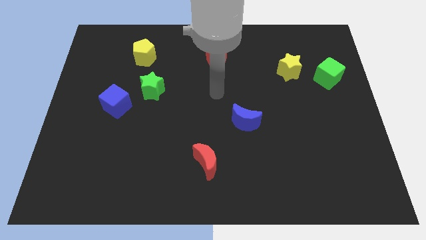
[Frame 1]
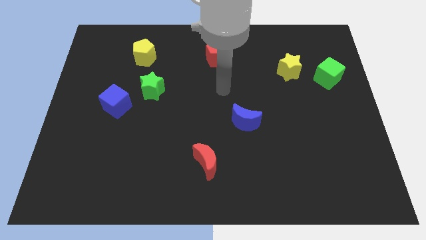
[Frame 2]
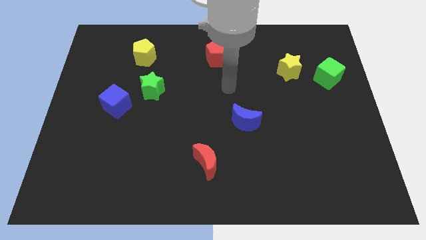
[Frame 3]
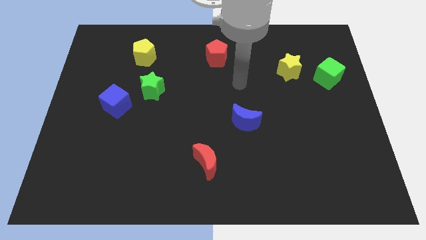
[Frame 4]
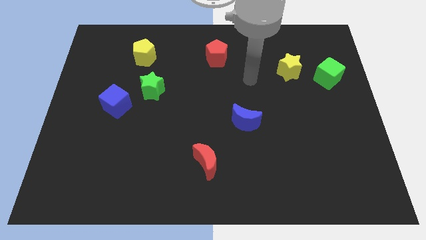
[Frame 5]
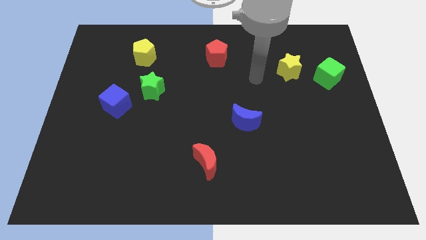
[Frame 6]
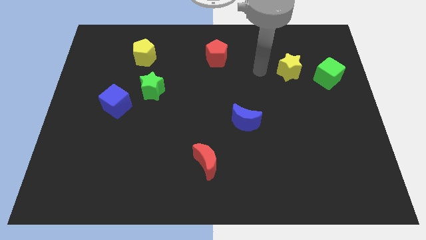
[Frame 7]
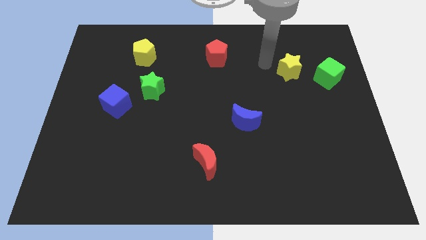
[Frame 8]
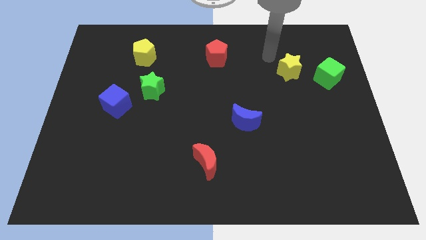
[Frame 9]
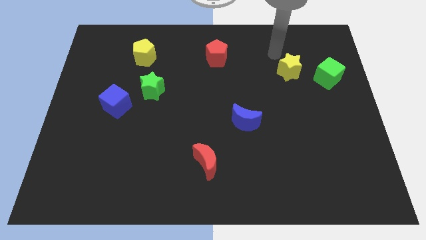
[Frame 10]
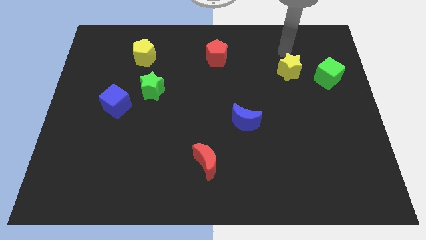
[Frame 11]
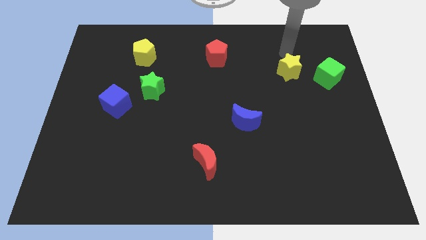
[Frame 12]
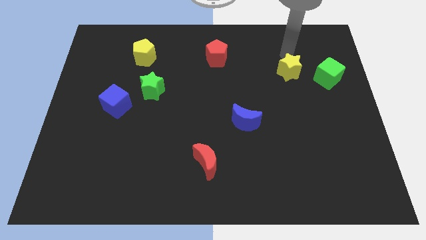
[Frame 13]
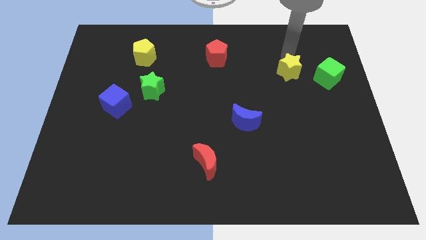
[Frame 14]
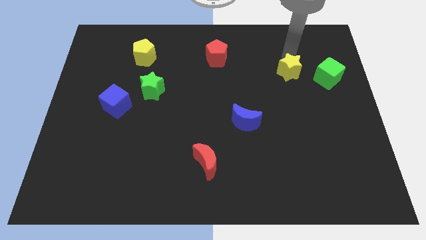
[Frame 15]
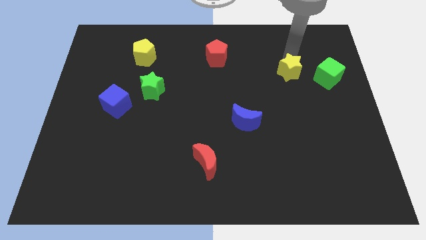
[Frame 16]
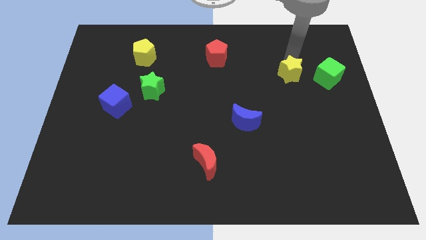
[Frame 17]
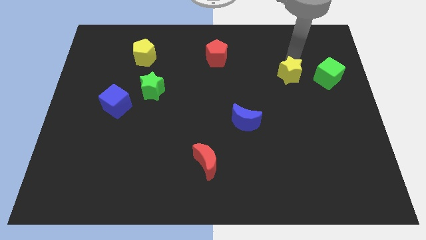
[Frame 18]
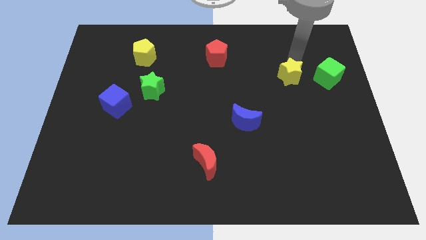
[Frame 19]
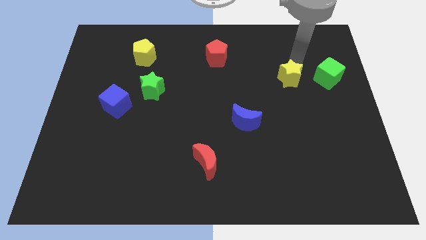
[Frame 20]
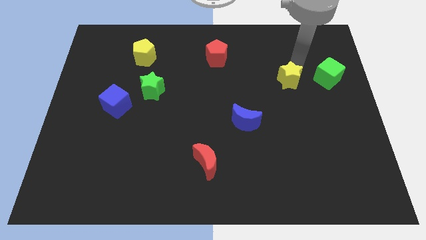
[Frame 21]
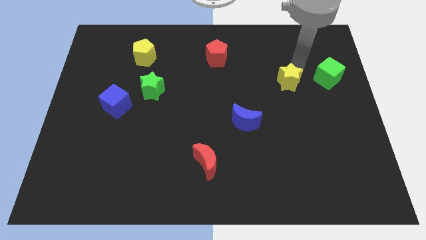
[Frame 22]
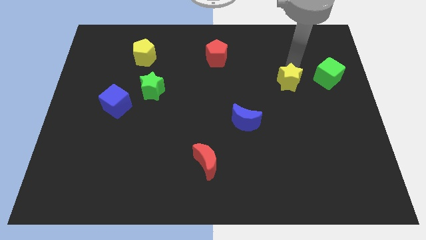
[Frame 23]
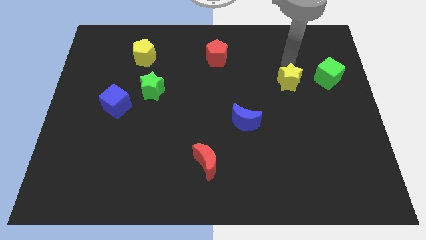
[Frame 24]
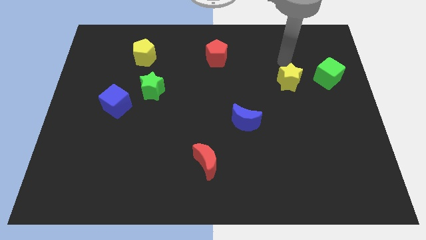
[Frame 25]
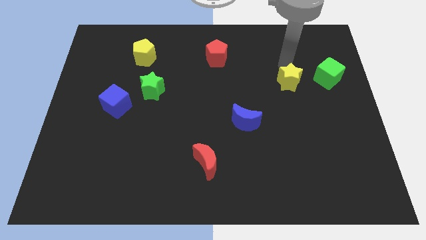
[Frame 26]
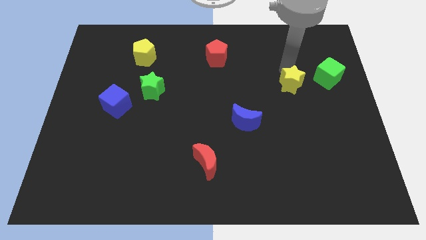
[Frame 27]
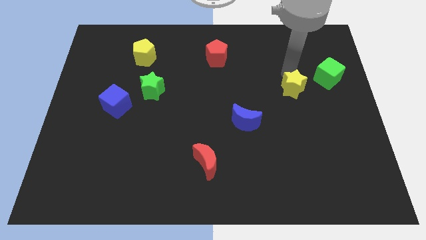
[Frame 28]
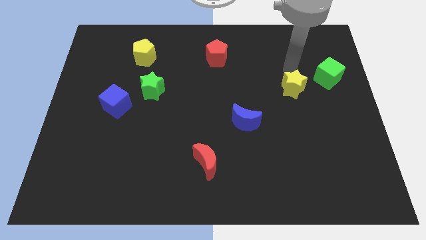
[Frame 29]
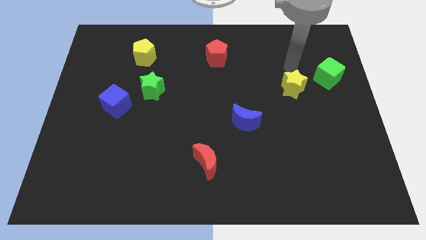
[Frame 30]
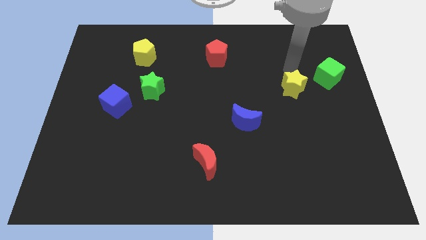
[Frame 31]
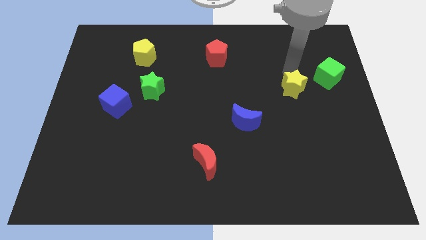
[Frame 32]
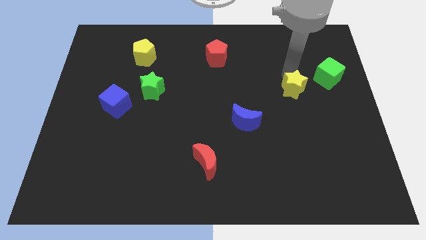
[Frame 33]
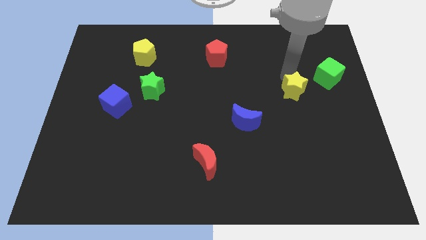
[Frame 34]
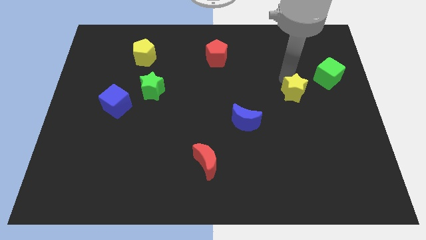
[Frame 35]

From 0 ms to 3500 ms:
slide the yellow star downwards somewhat

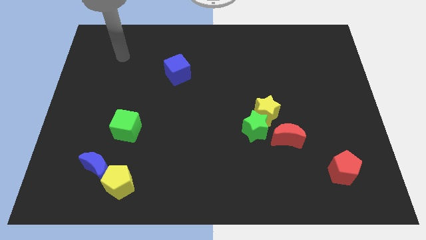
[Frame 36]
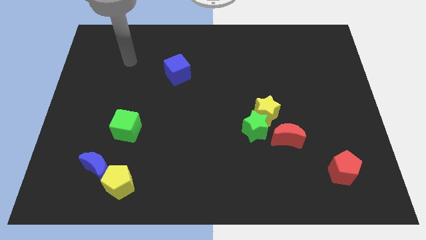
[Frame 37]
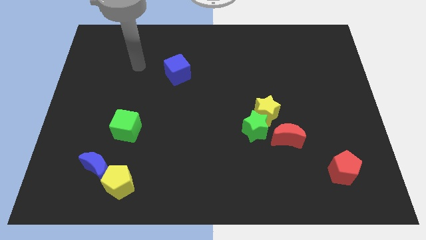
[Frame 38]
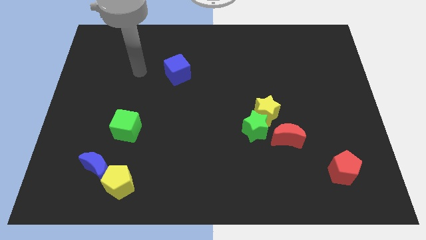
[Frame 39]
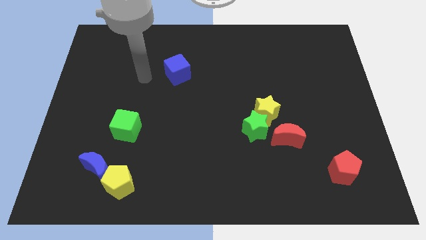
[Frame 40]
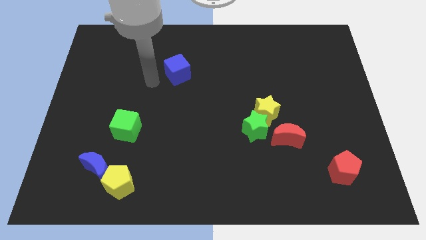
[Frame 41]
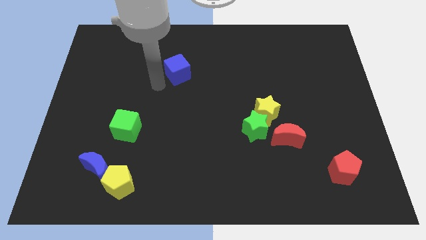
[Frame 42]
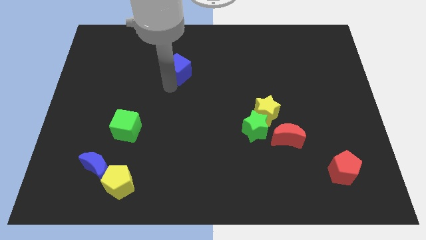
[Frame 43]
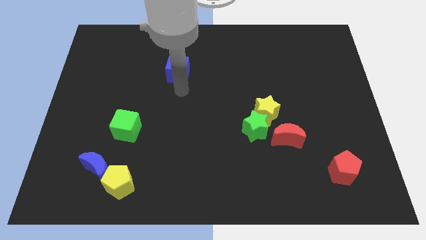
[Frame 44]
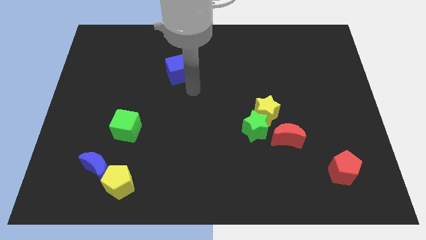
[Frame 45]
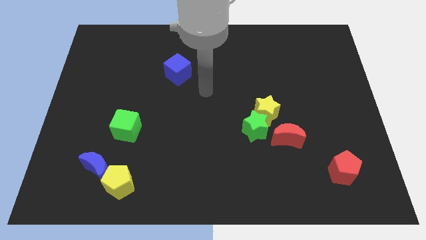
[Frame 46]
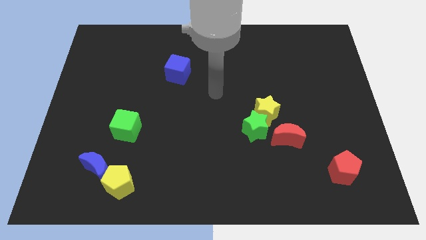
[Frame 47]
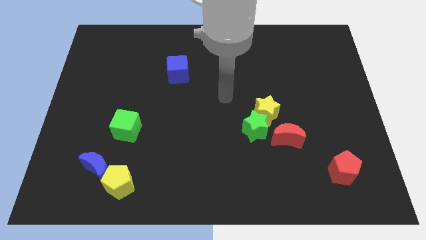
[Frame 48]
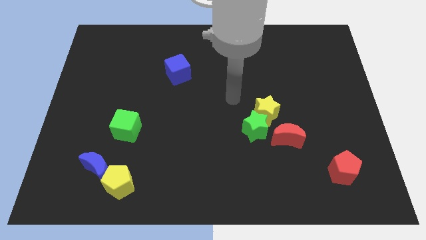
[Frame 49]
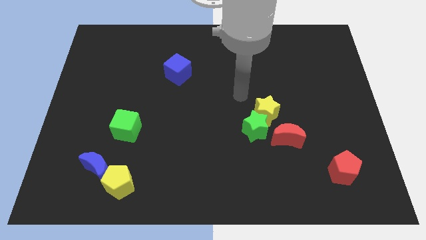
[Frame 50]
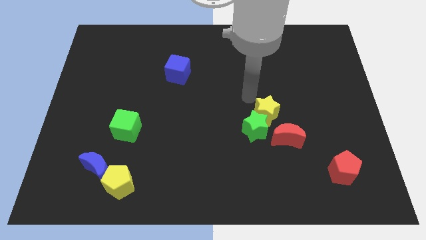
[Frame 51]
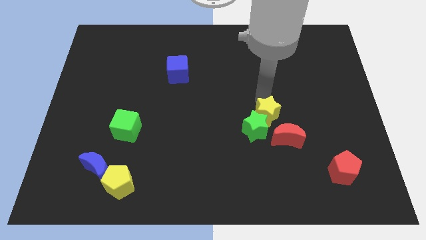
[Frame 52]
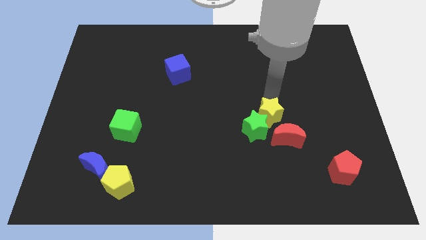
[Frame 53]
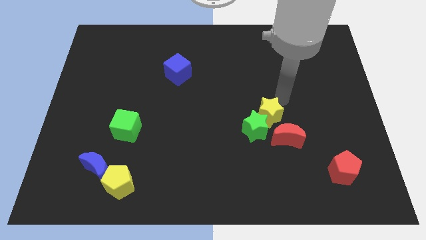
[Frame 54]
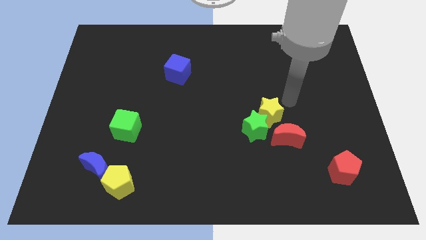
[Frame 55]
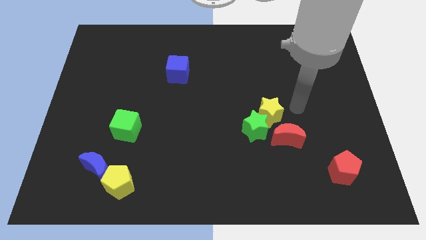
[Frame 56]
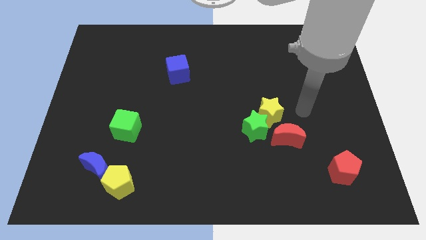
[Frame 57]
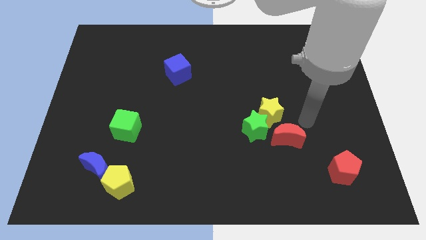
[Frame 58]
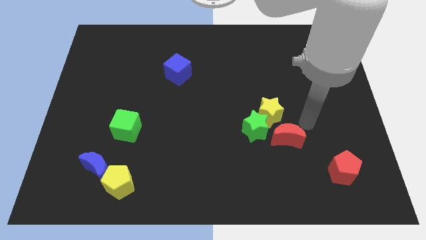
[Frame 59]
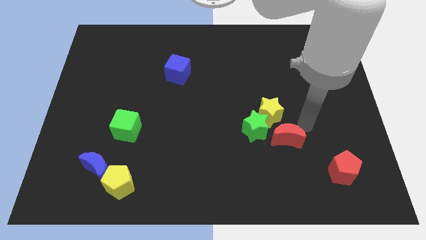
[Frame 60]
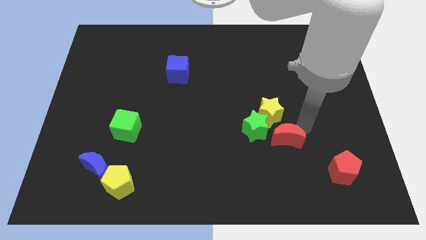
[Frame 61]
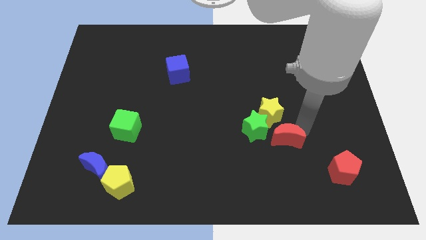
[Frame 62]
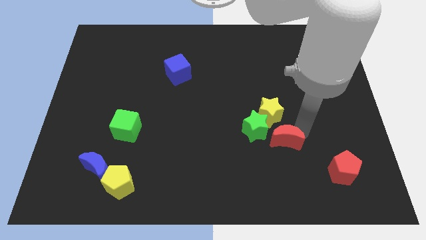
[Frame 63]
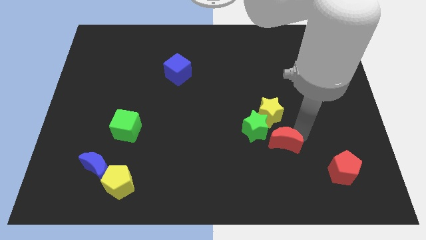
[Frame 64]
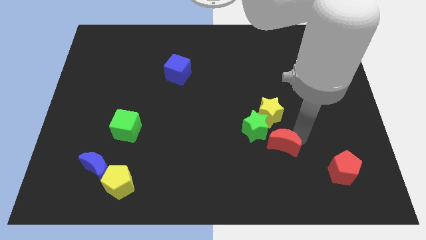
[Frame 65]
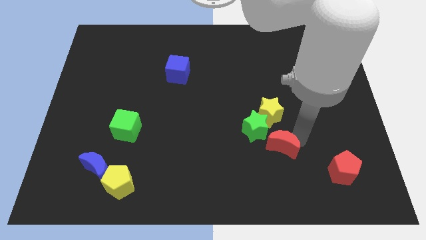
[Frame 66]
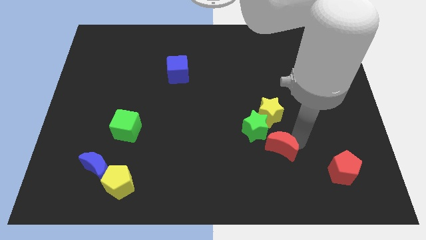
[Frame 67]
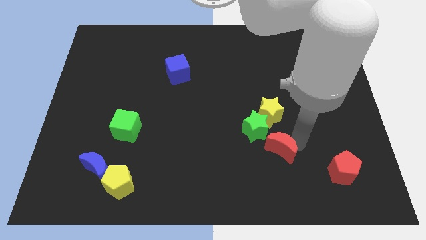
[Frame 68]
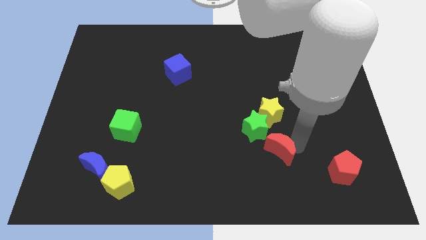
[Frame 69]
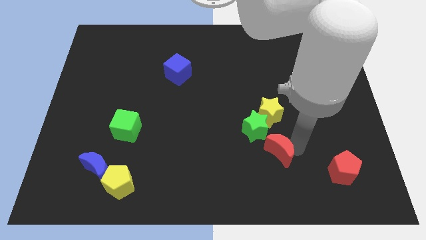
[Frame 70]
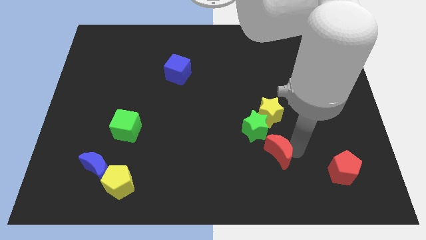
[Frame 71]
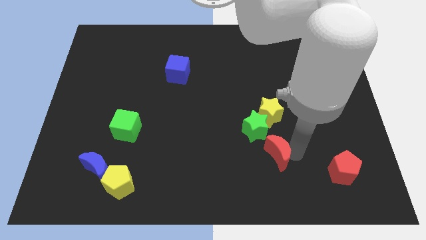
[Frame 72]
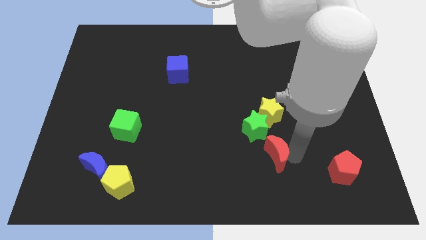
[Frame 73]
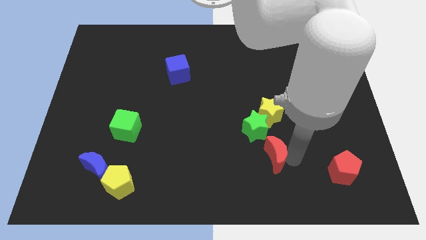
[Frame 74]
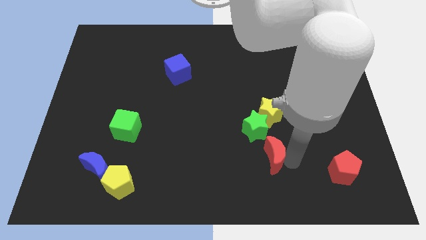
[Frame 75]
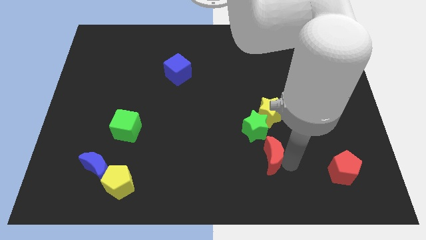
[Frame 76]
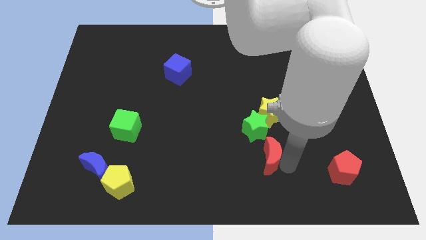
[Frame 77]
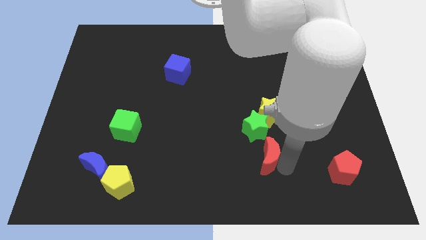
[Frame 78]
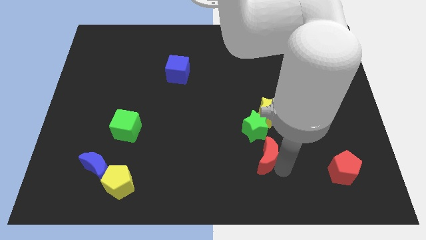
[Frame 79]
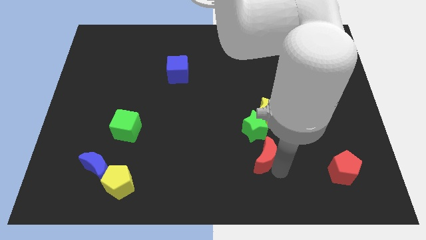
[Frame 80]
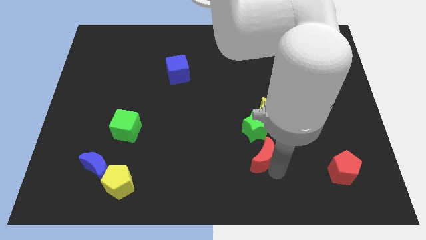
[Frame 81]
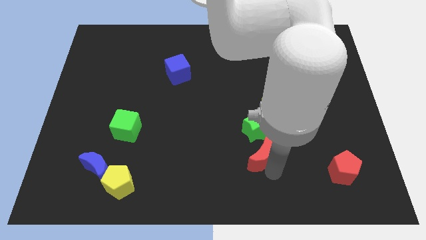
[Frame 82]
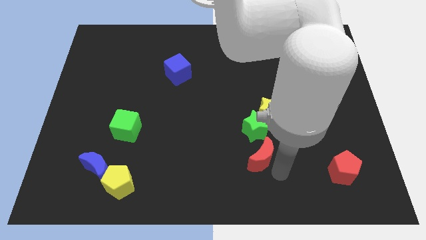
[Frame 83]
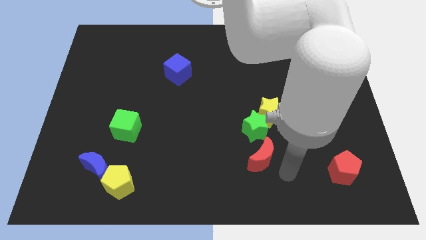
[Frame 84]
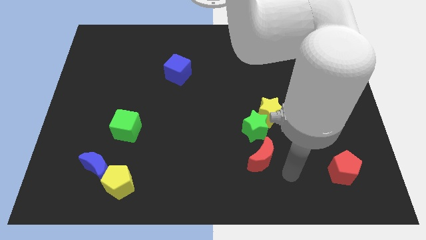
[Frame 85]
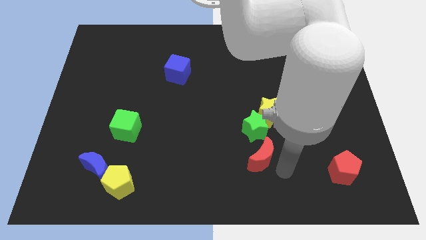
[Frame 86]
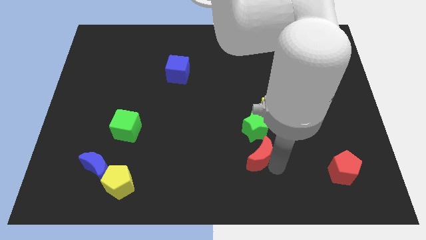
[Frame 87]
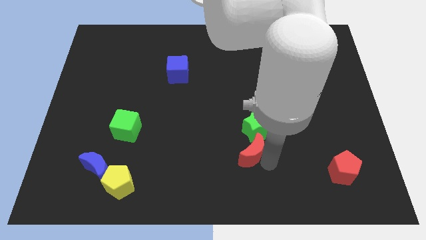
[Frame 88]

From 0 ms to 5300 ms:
slightly move the red moon to the left
